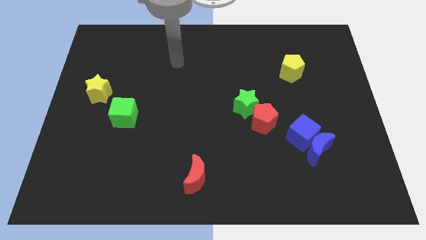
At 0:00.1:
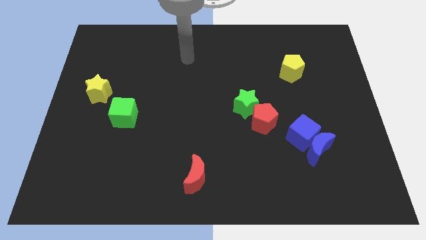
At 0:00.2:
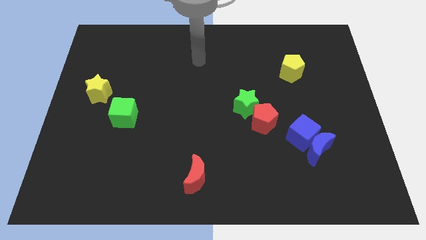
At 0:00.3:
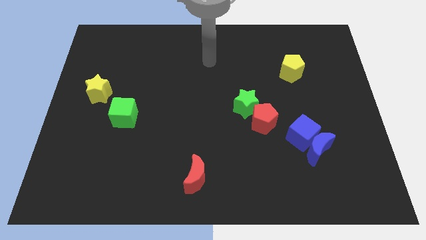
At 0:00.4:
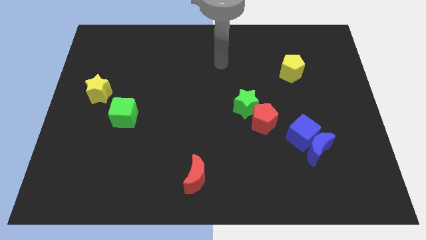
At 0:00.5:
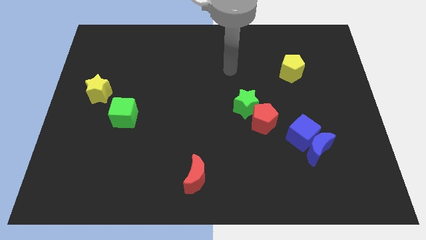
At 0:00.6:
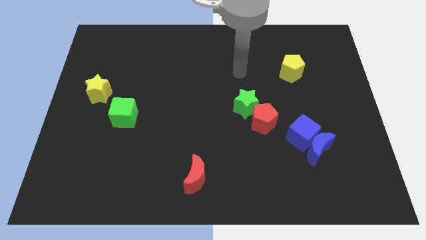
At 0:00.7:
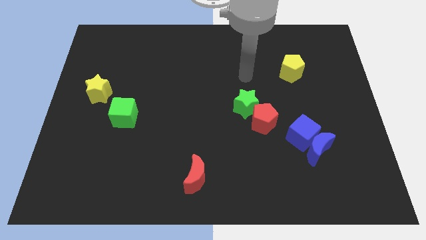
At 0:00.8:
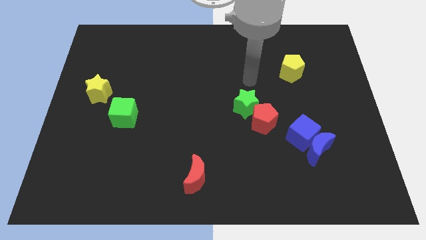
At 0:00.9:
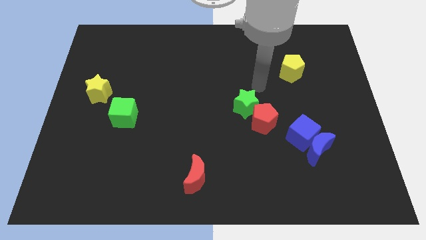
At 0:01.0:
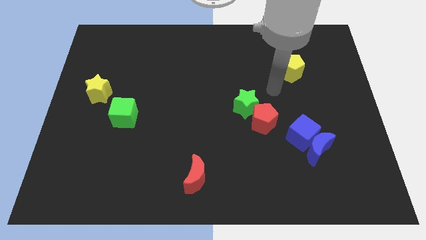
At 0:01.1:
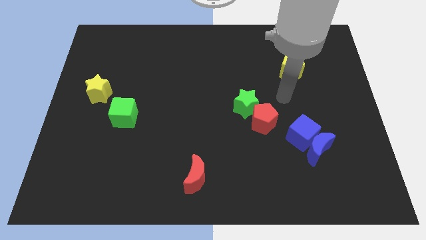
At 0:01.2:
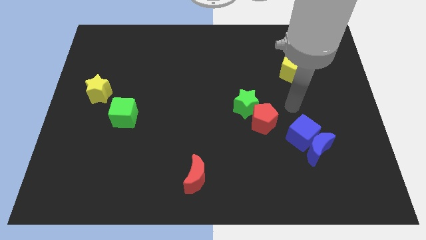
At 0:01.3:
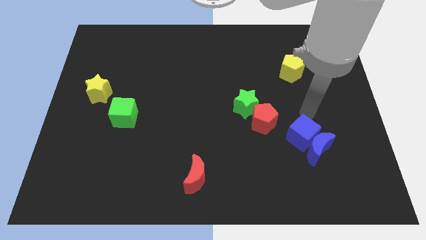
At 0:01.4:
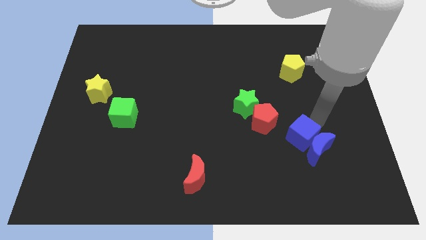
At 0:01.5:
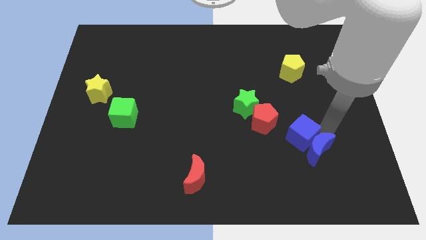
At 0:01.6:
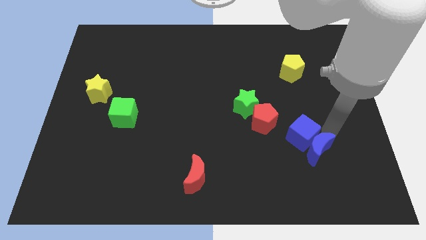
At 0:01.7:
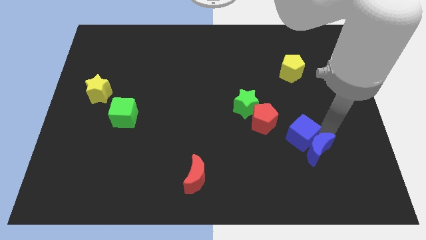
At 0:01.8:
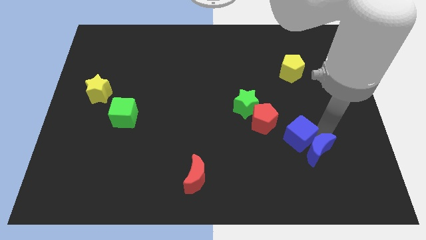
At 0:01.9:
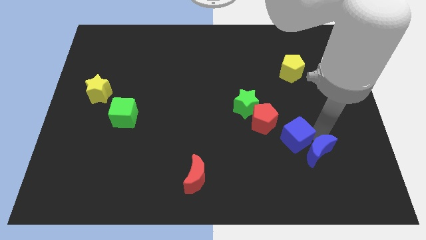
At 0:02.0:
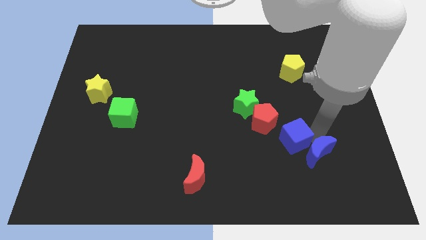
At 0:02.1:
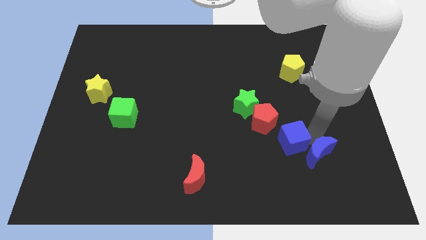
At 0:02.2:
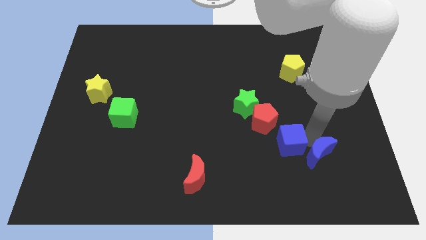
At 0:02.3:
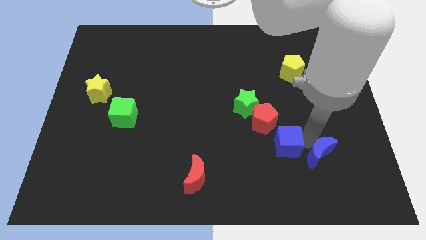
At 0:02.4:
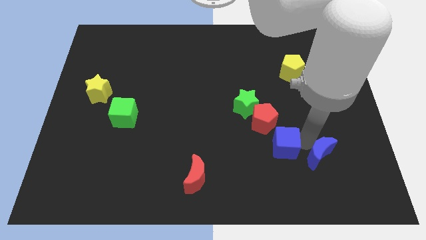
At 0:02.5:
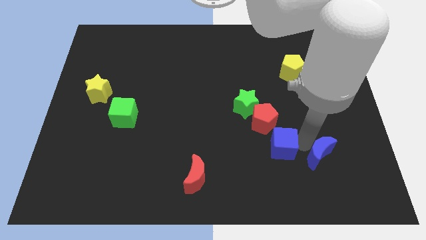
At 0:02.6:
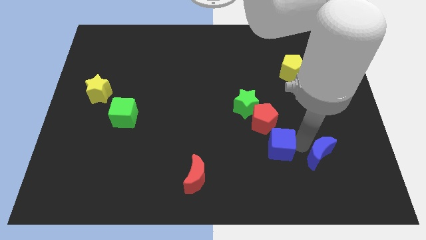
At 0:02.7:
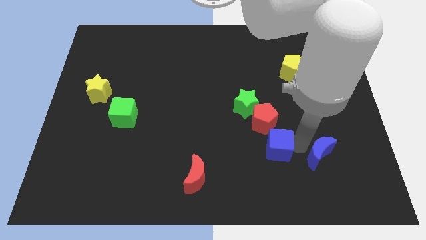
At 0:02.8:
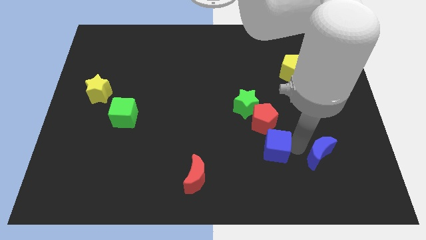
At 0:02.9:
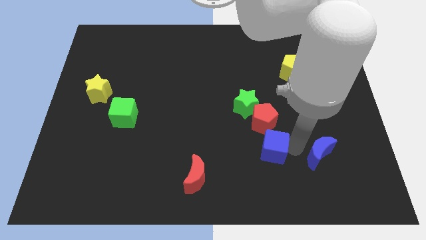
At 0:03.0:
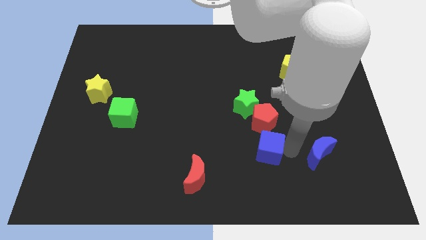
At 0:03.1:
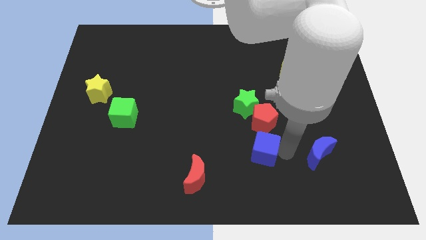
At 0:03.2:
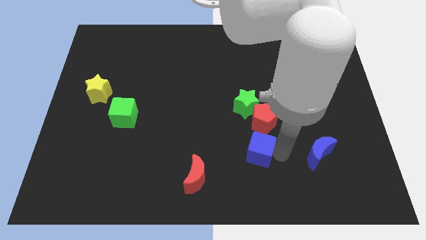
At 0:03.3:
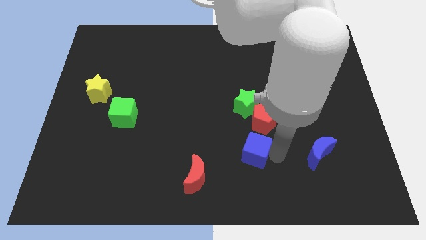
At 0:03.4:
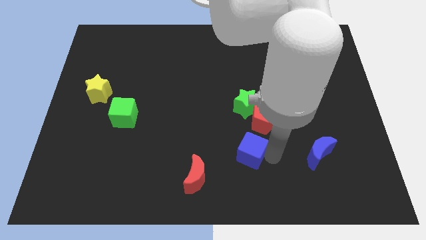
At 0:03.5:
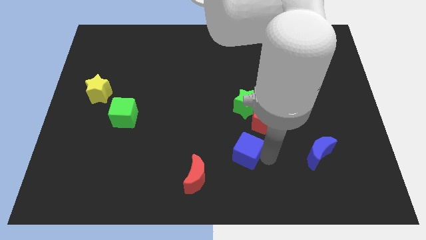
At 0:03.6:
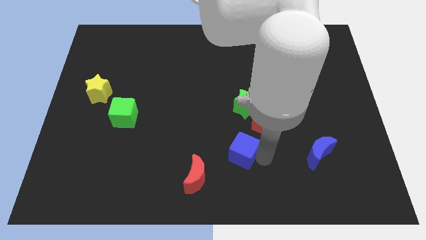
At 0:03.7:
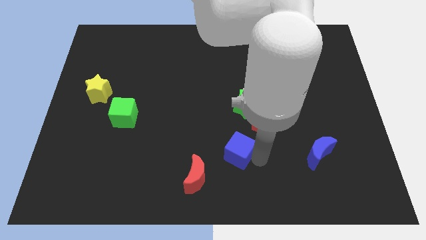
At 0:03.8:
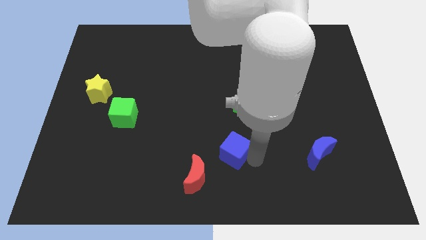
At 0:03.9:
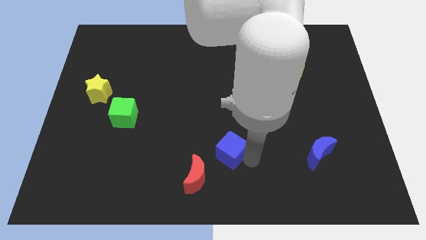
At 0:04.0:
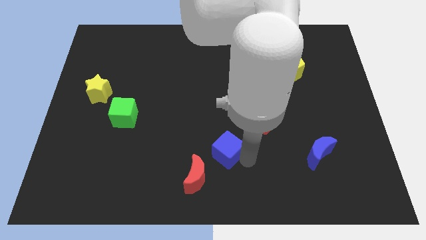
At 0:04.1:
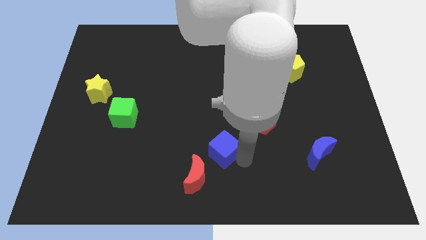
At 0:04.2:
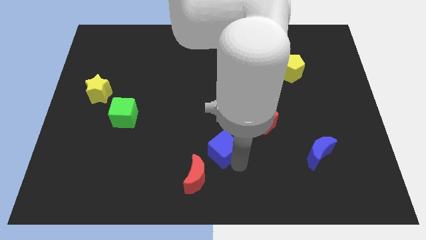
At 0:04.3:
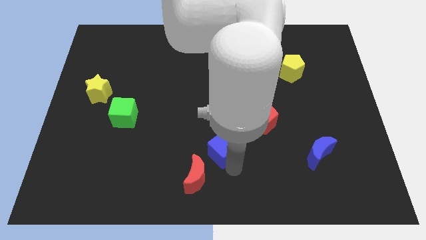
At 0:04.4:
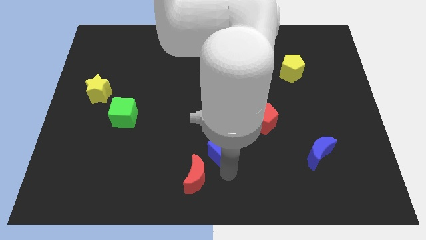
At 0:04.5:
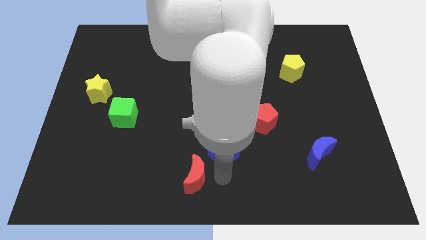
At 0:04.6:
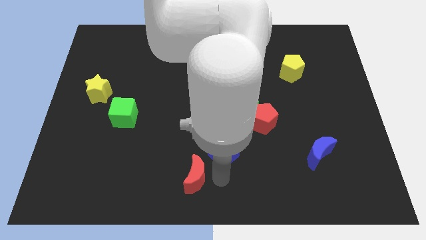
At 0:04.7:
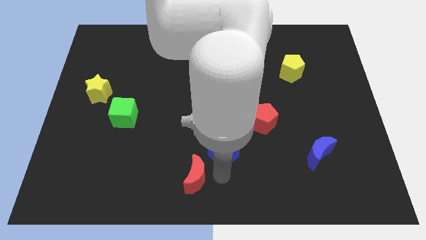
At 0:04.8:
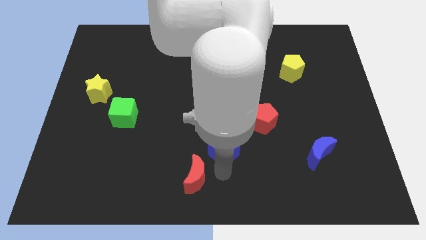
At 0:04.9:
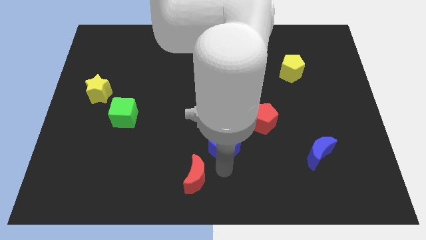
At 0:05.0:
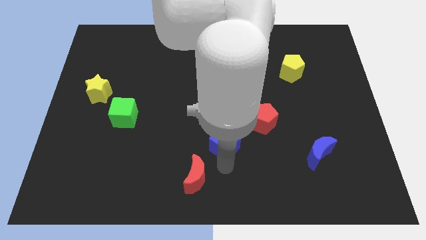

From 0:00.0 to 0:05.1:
push the blue cube to the center of the board
